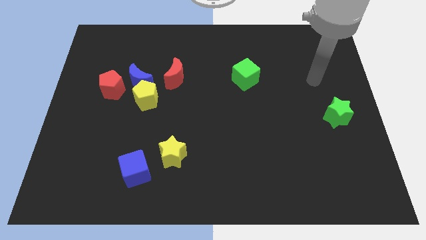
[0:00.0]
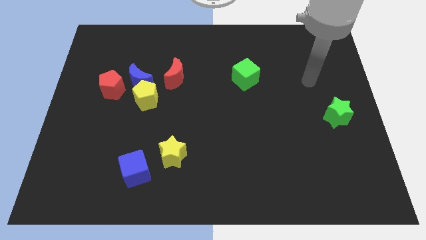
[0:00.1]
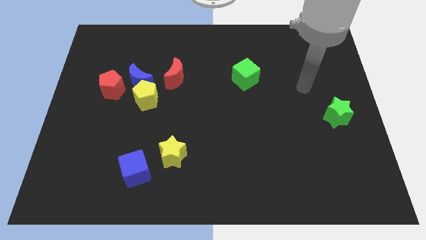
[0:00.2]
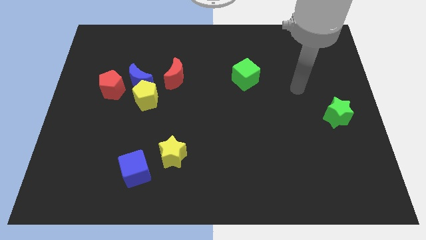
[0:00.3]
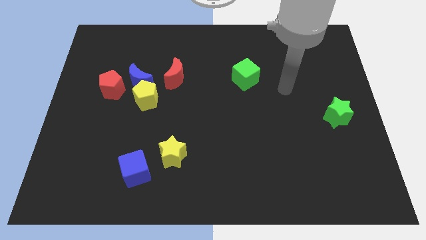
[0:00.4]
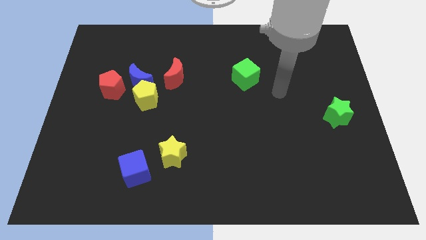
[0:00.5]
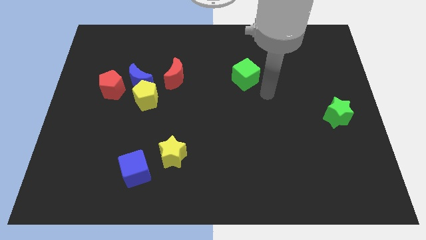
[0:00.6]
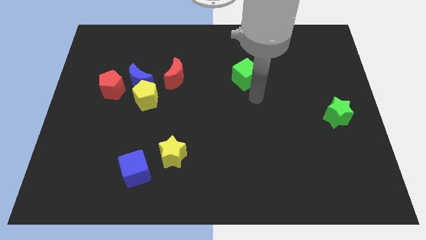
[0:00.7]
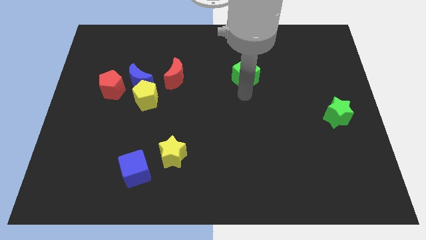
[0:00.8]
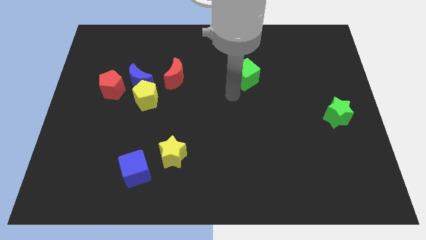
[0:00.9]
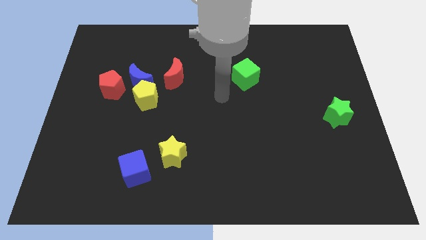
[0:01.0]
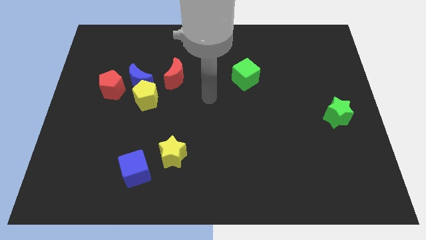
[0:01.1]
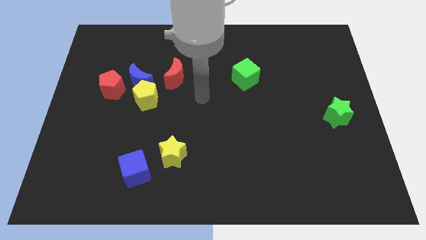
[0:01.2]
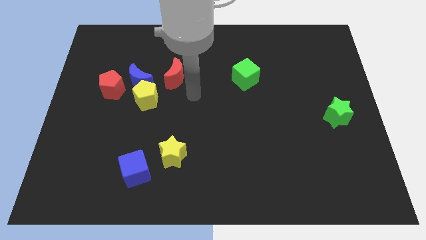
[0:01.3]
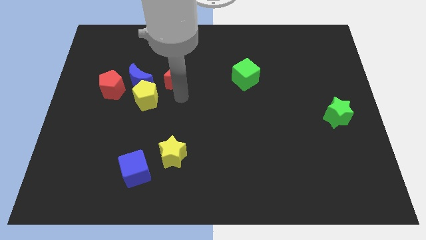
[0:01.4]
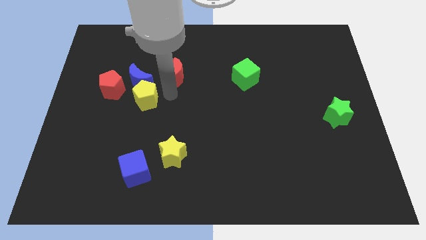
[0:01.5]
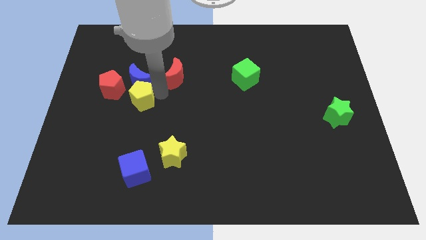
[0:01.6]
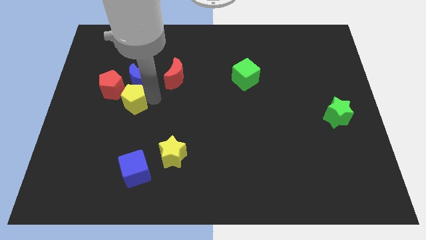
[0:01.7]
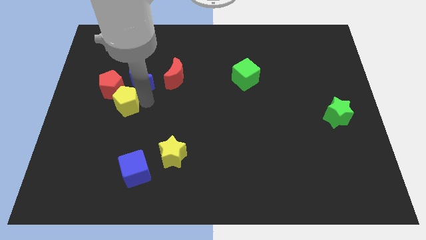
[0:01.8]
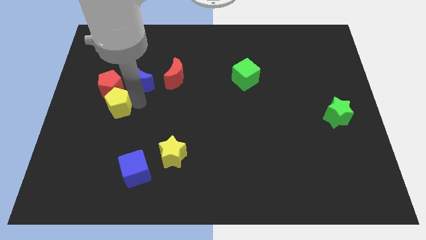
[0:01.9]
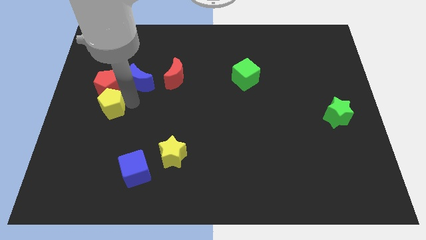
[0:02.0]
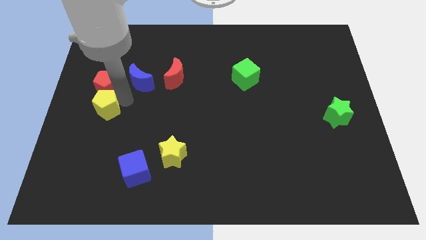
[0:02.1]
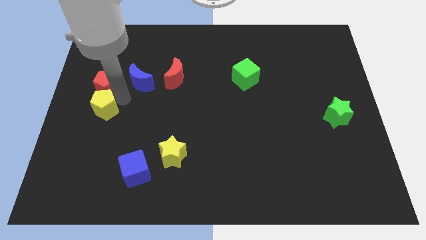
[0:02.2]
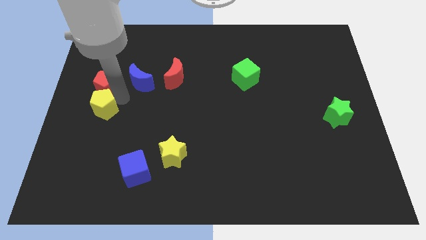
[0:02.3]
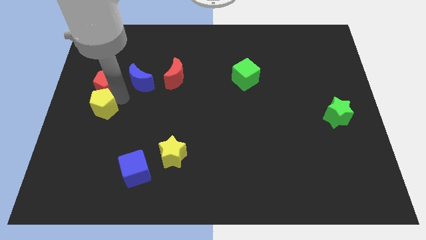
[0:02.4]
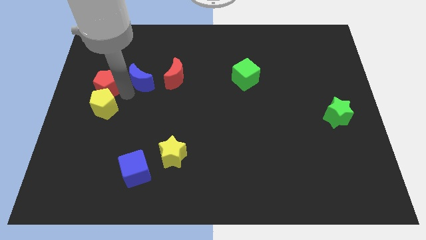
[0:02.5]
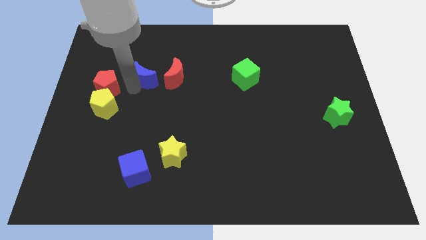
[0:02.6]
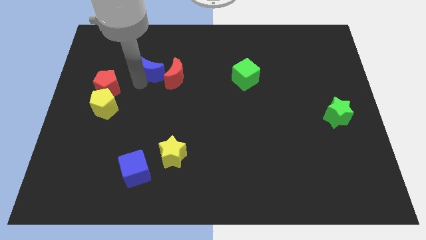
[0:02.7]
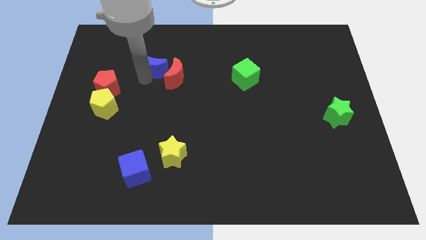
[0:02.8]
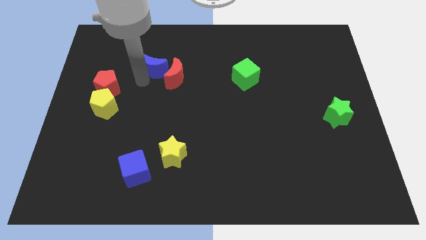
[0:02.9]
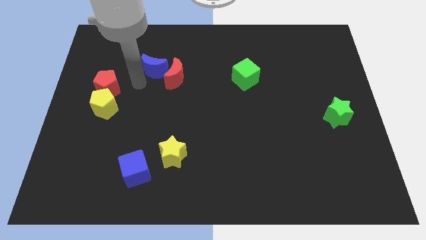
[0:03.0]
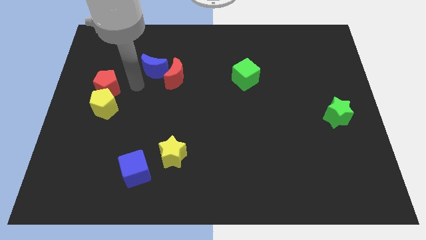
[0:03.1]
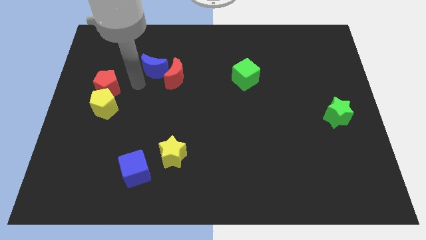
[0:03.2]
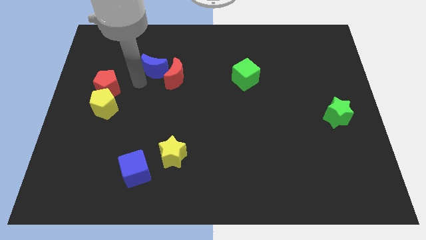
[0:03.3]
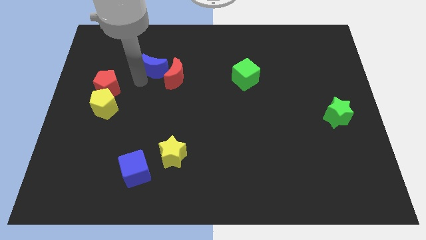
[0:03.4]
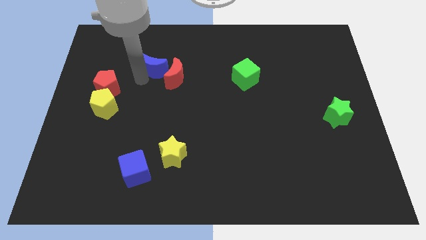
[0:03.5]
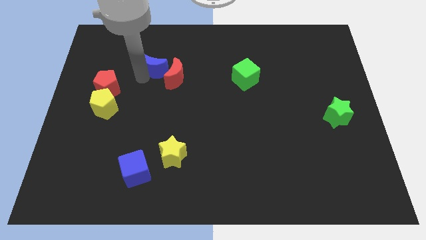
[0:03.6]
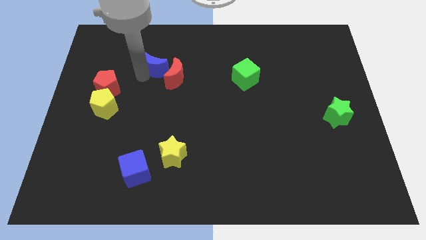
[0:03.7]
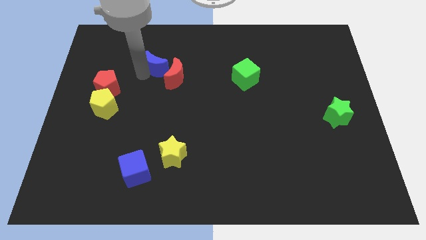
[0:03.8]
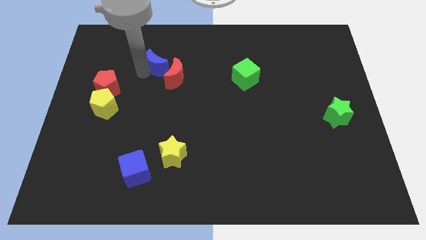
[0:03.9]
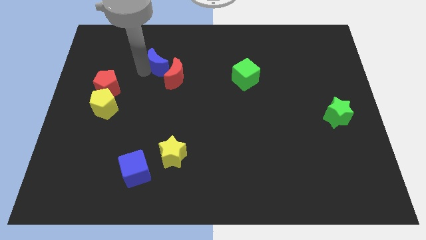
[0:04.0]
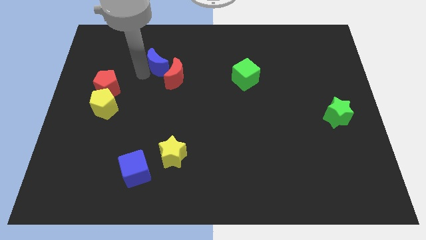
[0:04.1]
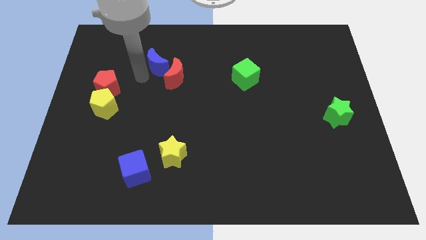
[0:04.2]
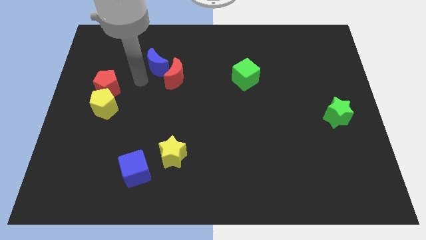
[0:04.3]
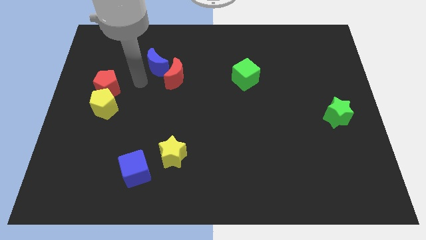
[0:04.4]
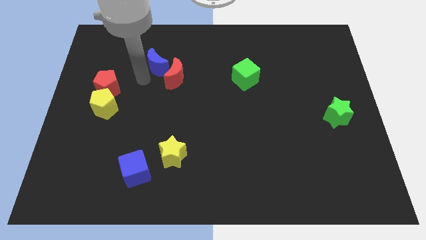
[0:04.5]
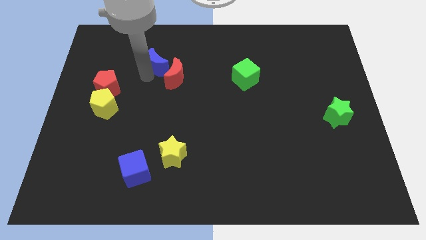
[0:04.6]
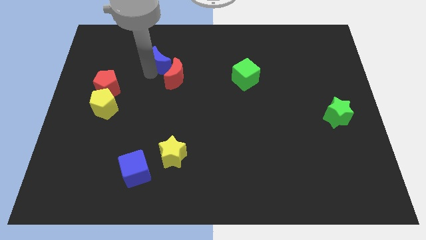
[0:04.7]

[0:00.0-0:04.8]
pull the blue moon apart from the group

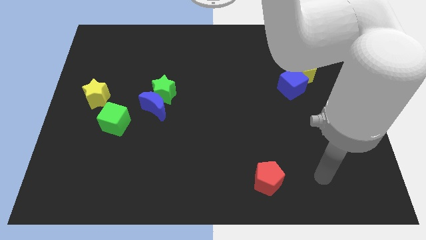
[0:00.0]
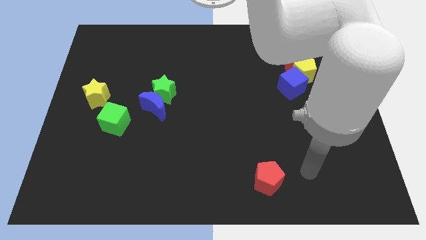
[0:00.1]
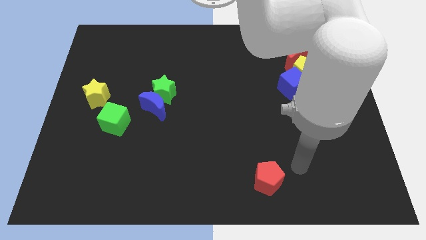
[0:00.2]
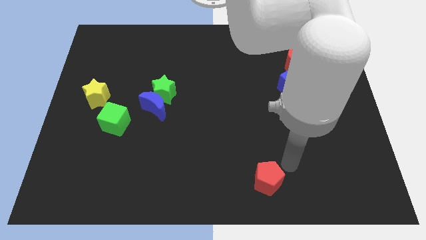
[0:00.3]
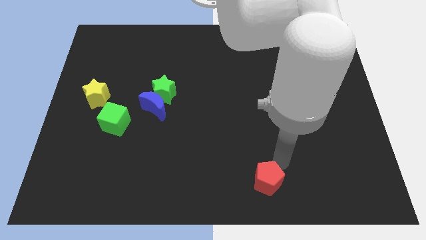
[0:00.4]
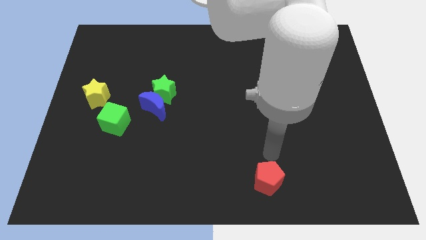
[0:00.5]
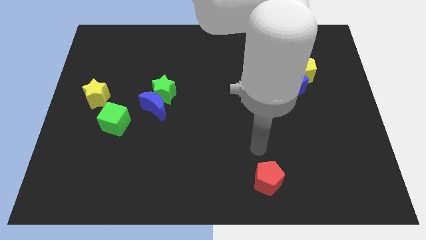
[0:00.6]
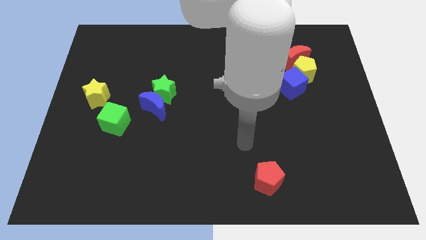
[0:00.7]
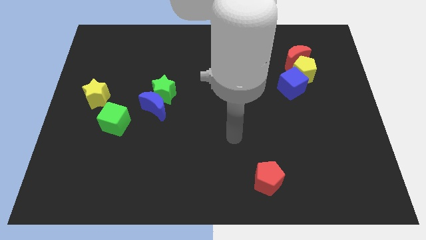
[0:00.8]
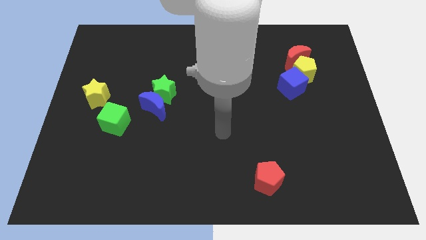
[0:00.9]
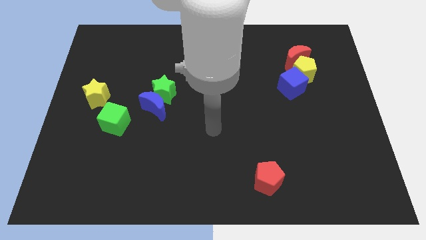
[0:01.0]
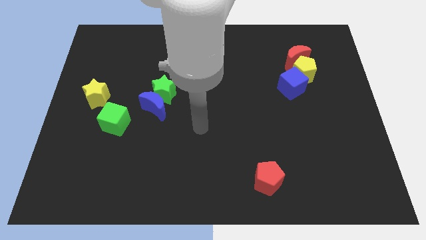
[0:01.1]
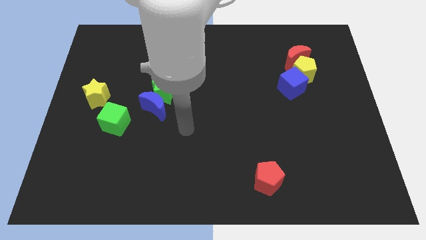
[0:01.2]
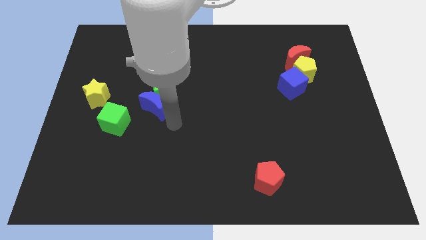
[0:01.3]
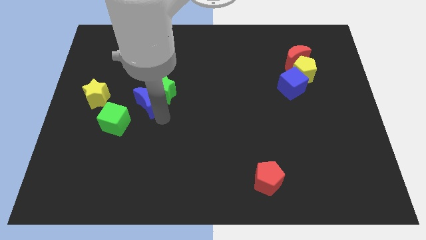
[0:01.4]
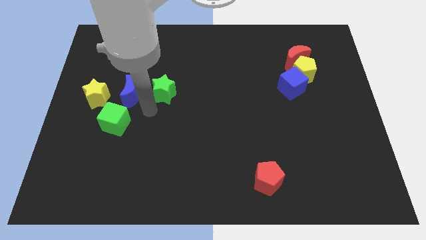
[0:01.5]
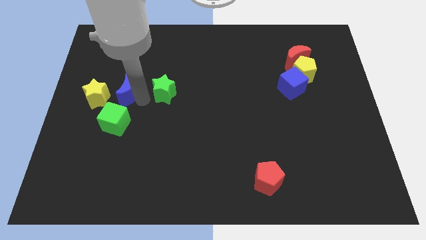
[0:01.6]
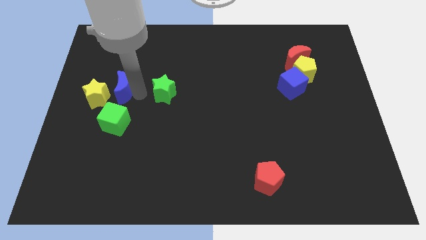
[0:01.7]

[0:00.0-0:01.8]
pull the green star apart from the blue moon

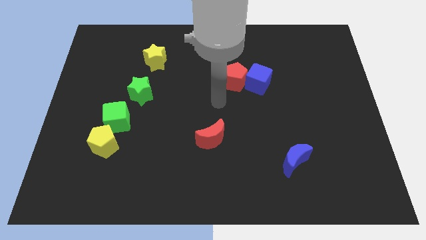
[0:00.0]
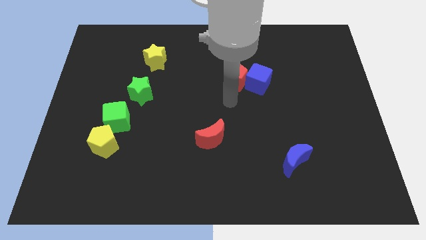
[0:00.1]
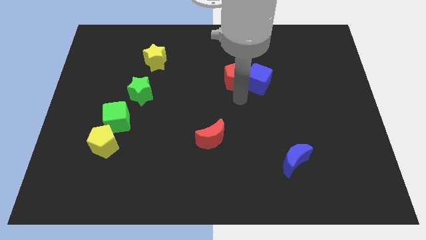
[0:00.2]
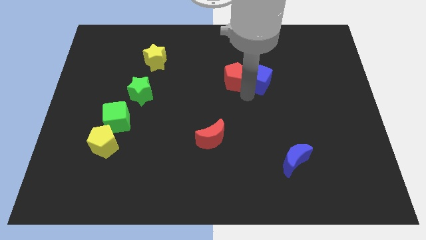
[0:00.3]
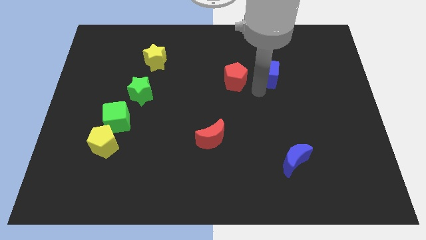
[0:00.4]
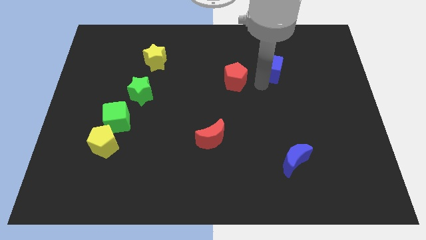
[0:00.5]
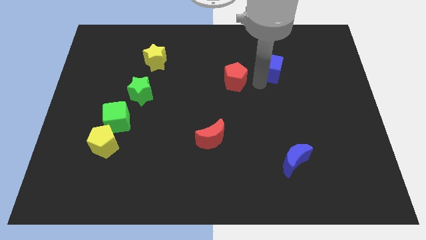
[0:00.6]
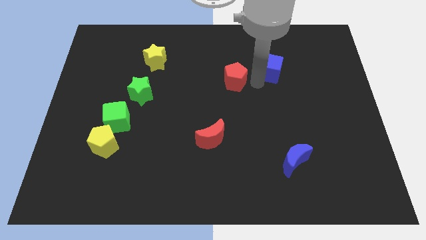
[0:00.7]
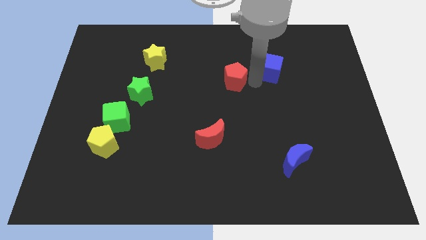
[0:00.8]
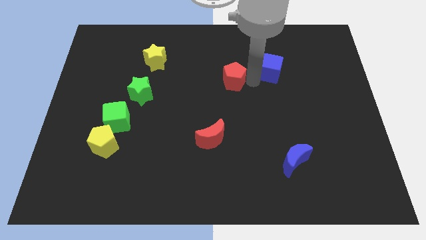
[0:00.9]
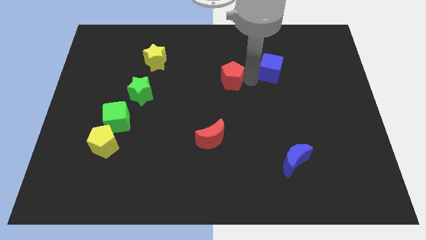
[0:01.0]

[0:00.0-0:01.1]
separate the red pentagon from the blue cube

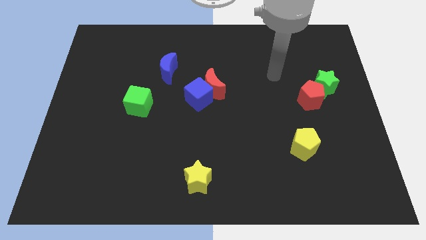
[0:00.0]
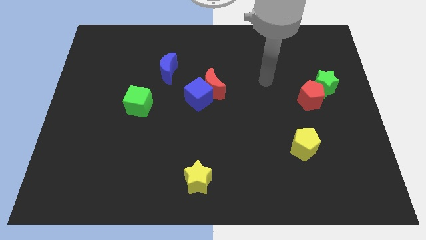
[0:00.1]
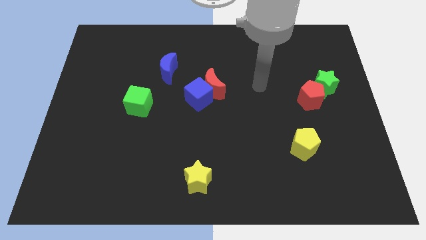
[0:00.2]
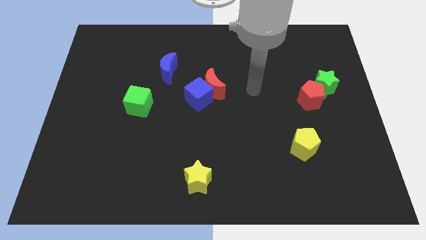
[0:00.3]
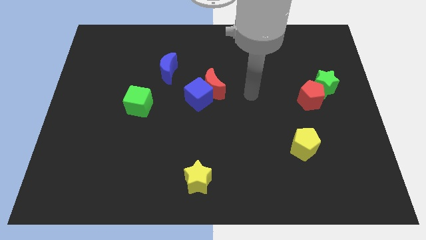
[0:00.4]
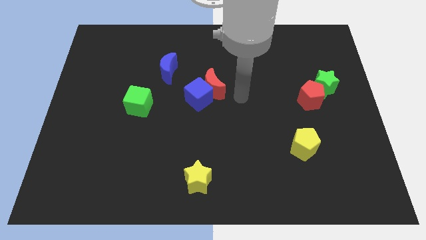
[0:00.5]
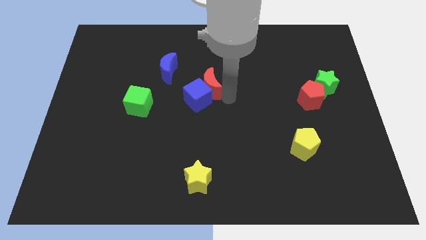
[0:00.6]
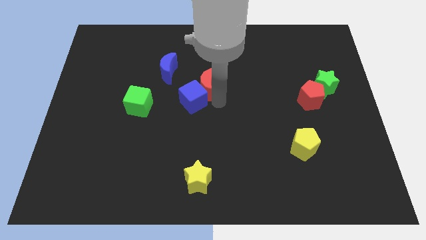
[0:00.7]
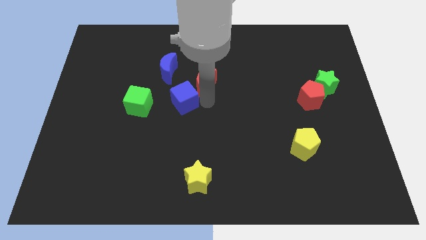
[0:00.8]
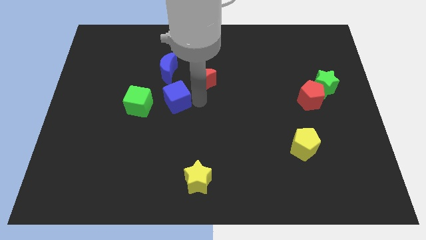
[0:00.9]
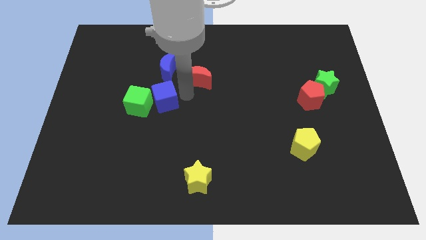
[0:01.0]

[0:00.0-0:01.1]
separate the red moon from the blue cube

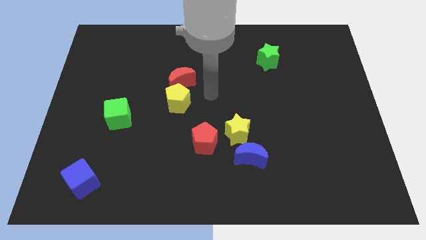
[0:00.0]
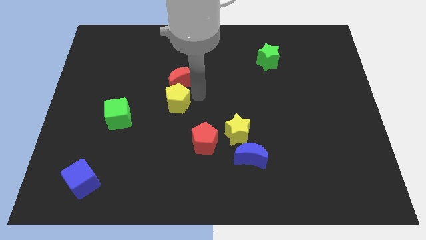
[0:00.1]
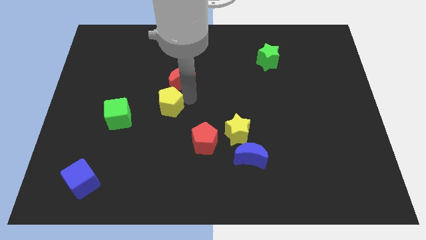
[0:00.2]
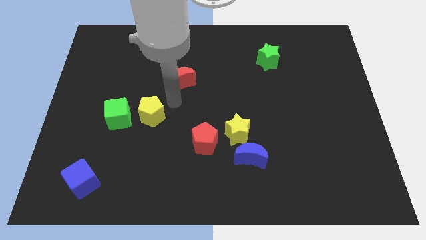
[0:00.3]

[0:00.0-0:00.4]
pull the red moon apart from the yellow pentagon
